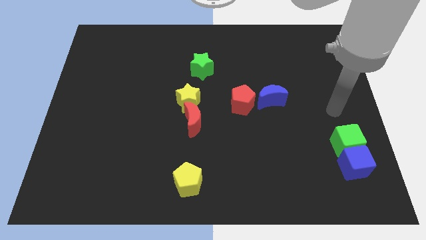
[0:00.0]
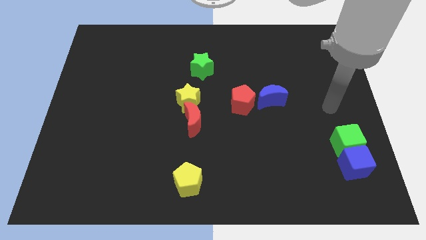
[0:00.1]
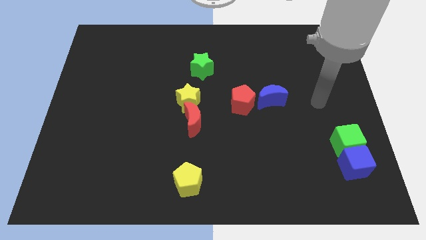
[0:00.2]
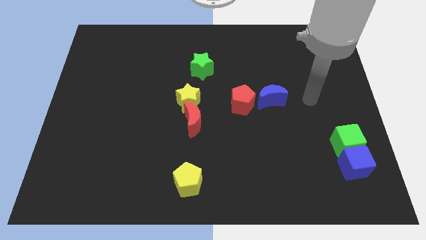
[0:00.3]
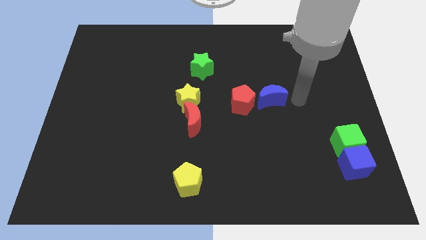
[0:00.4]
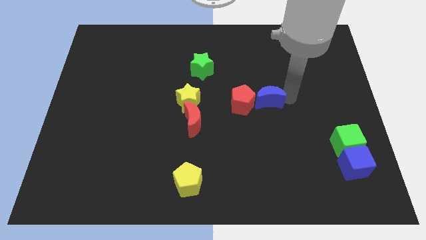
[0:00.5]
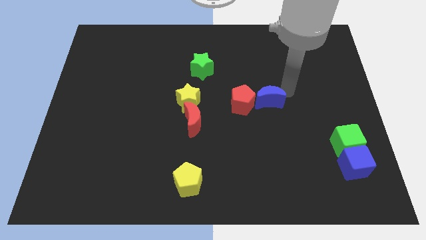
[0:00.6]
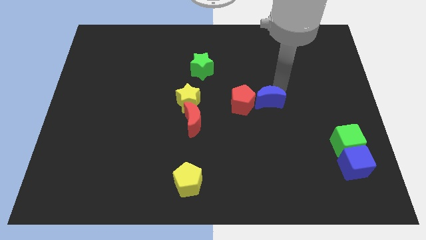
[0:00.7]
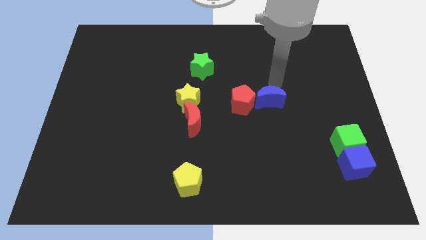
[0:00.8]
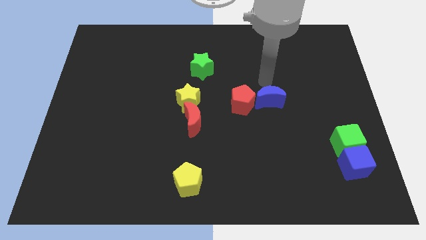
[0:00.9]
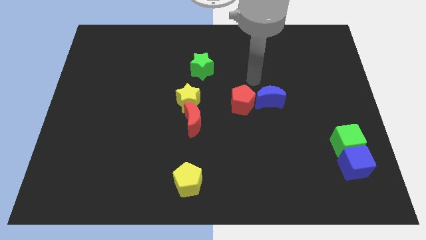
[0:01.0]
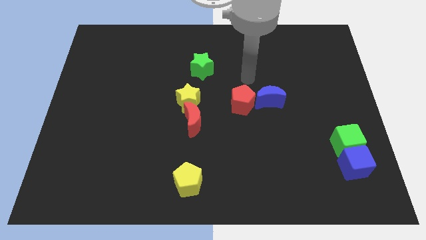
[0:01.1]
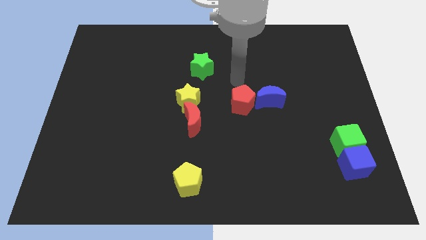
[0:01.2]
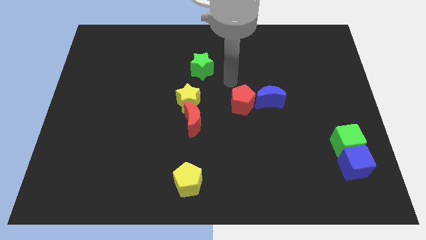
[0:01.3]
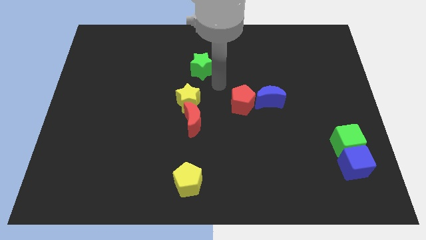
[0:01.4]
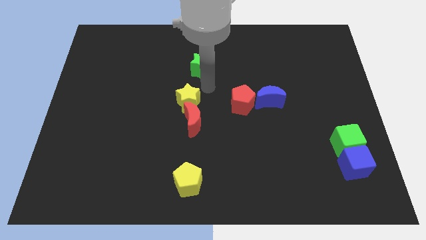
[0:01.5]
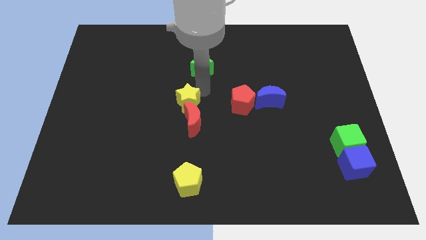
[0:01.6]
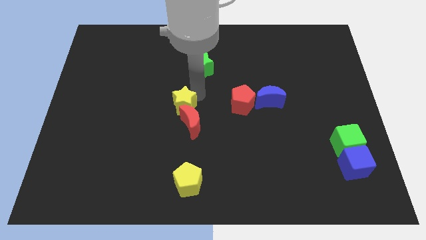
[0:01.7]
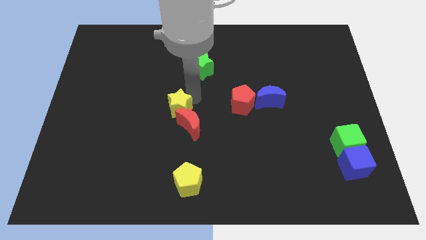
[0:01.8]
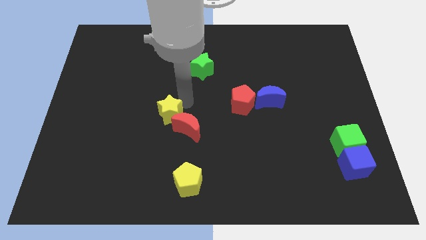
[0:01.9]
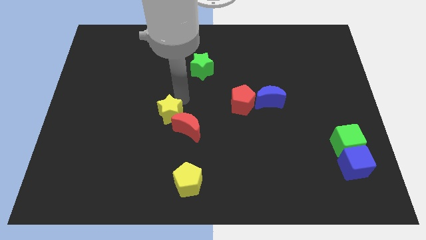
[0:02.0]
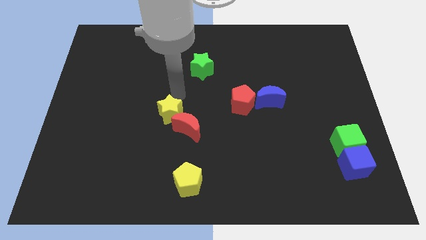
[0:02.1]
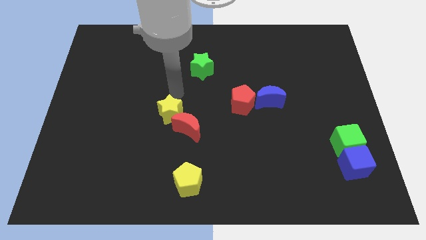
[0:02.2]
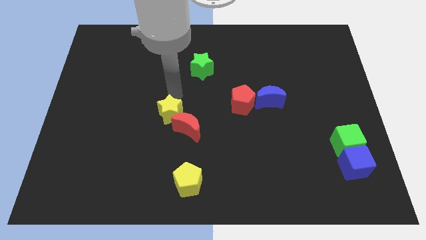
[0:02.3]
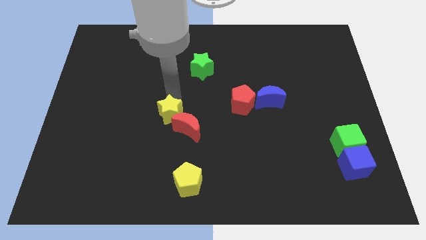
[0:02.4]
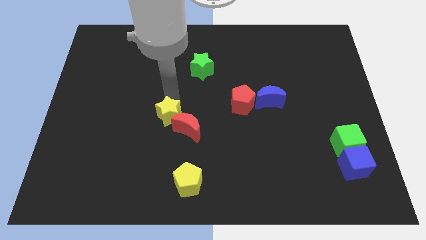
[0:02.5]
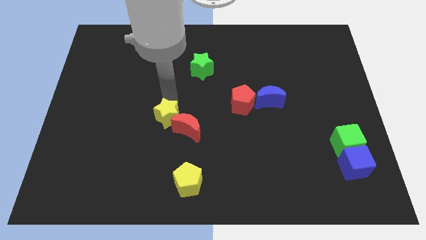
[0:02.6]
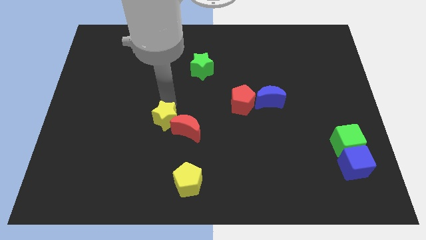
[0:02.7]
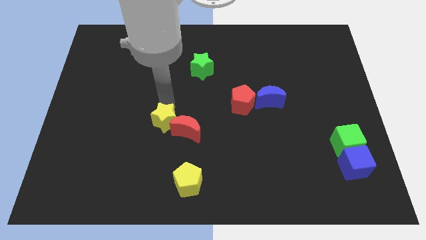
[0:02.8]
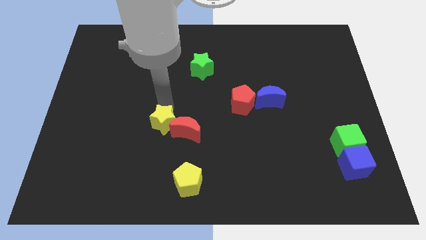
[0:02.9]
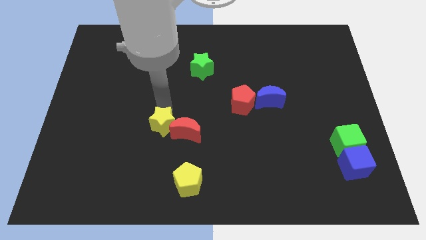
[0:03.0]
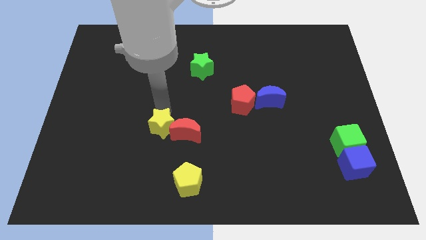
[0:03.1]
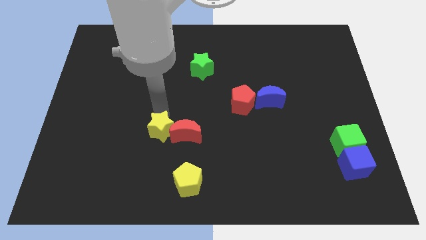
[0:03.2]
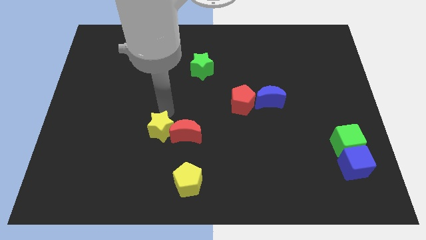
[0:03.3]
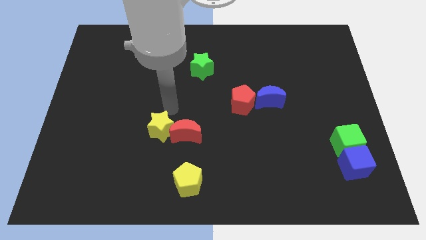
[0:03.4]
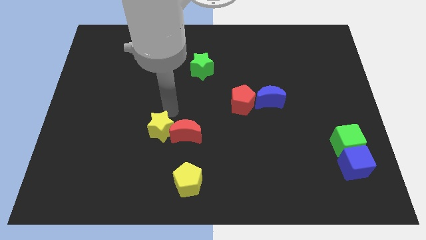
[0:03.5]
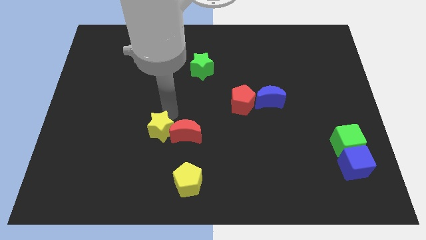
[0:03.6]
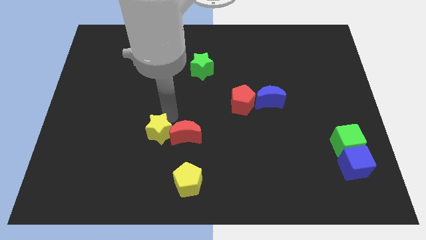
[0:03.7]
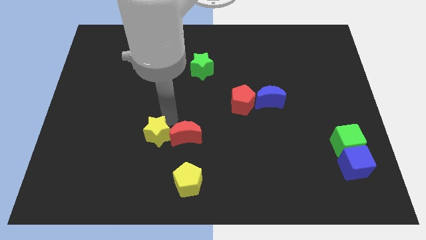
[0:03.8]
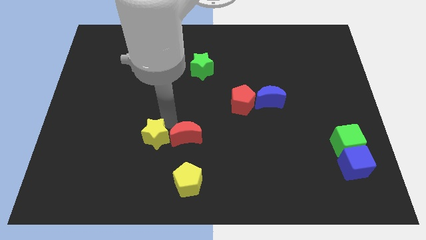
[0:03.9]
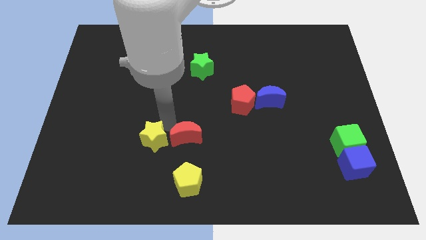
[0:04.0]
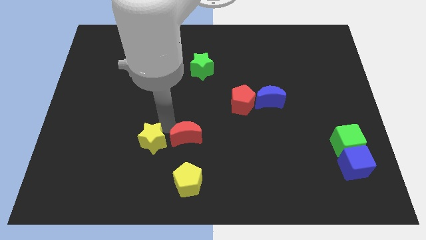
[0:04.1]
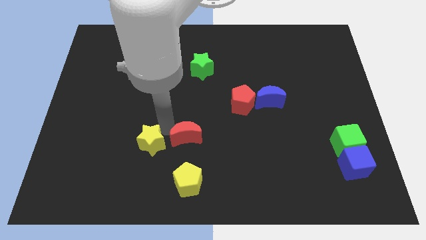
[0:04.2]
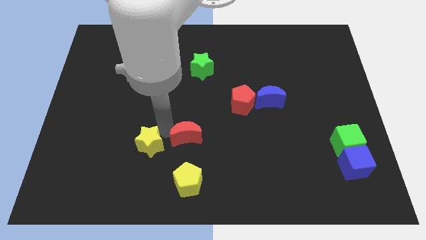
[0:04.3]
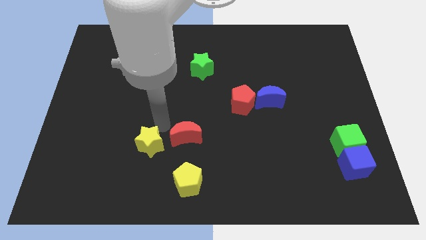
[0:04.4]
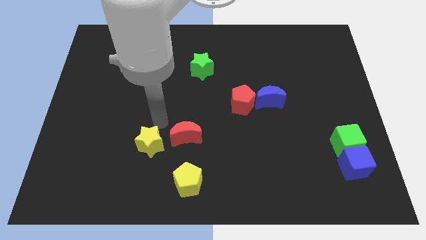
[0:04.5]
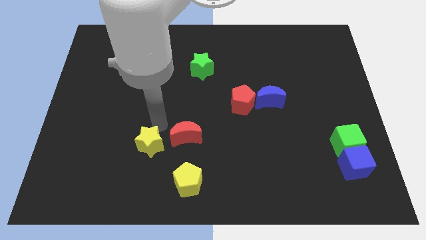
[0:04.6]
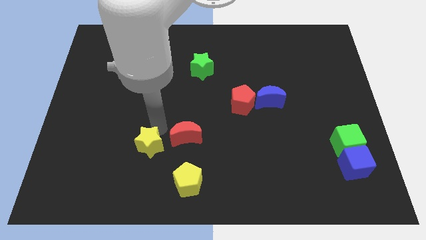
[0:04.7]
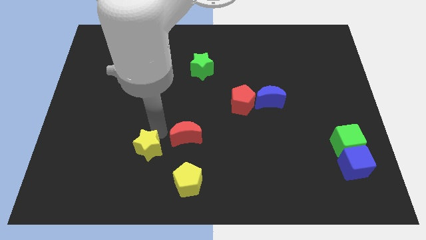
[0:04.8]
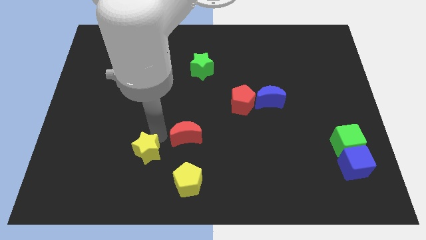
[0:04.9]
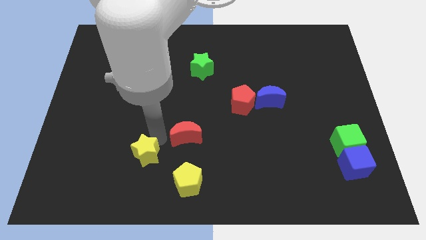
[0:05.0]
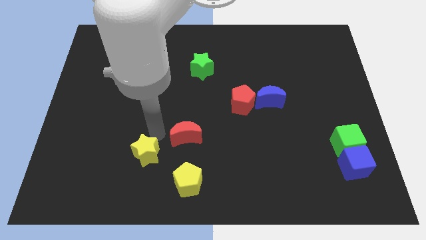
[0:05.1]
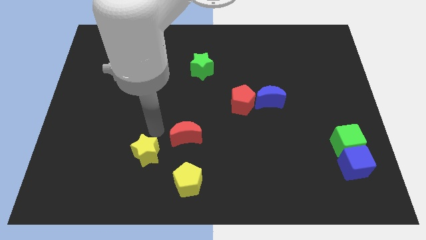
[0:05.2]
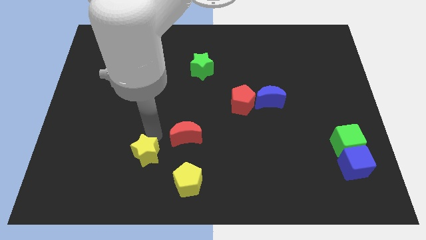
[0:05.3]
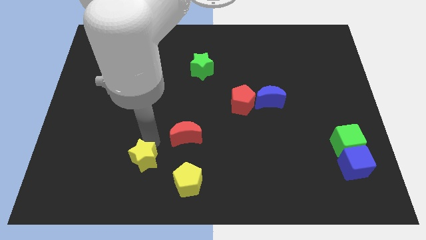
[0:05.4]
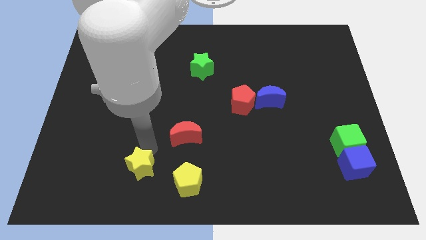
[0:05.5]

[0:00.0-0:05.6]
slide the yellow star just left of the yellow pentagon

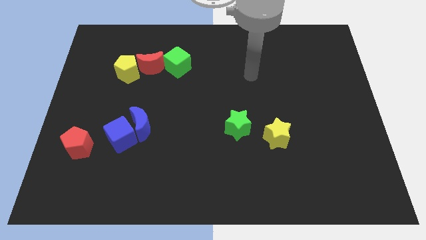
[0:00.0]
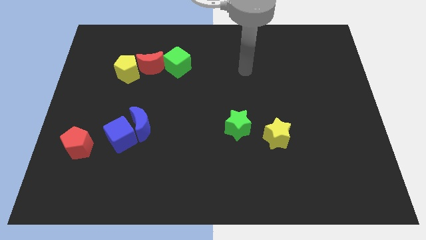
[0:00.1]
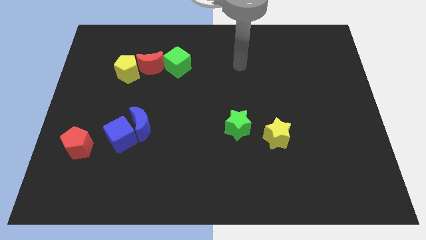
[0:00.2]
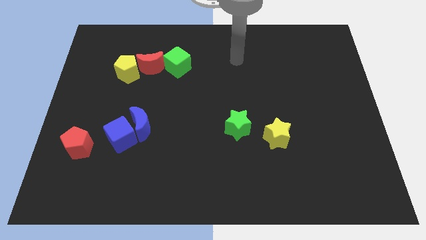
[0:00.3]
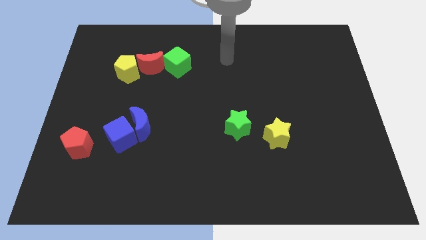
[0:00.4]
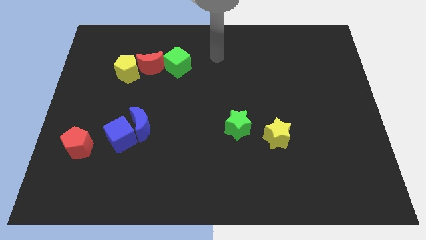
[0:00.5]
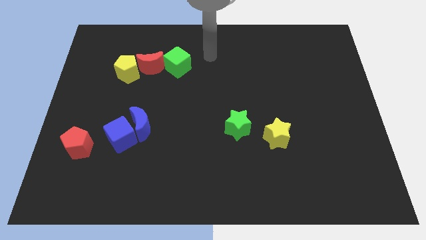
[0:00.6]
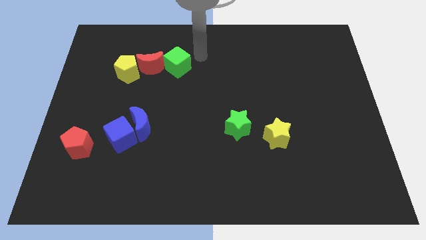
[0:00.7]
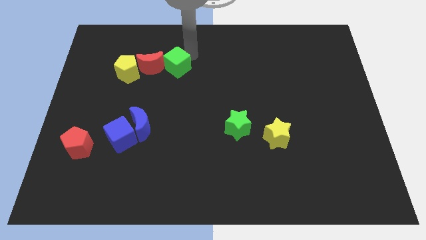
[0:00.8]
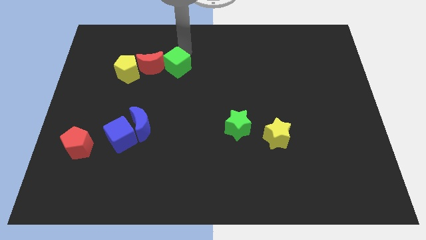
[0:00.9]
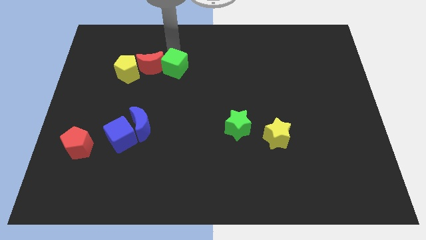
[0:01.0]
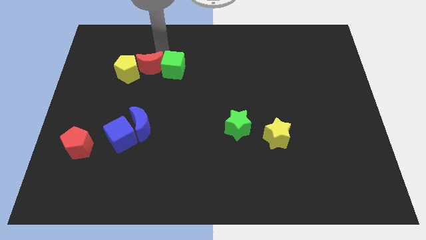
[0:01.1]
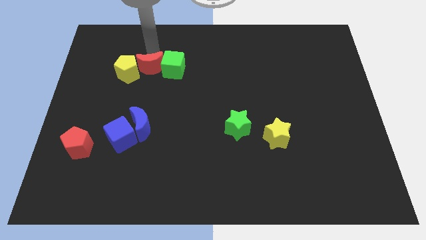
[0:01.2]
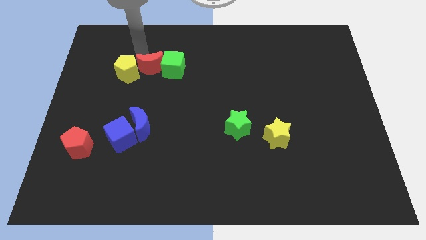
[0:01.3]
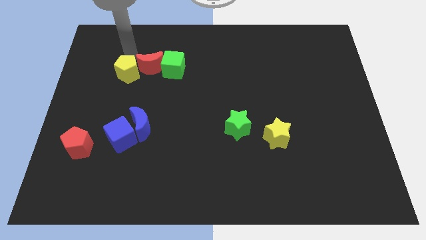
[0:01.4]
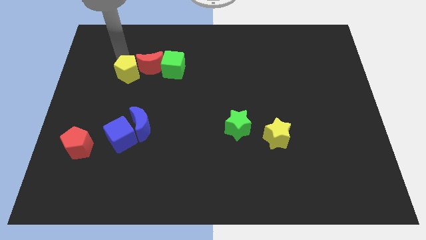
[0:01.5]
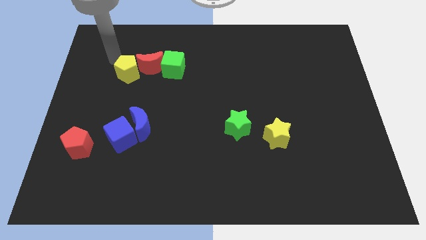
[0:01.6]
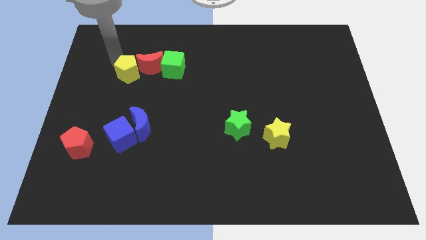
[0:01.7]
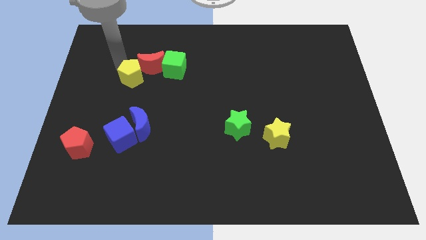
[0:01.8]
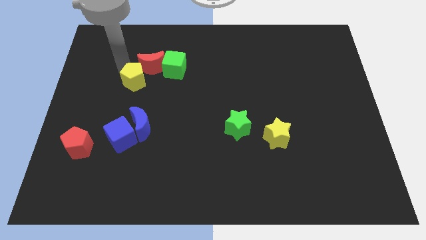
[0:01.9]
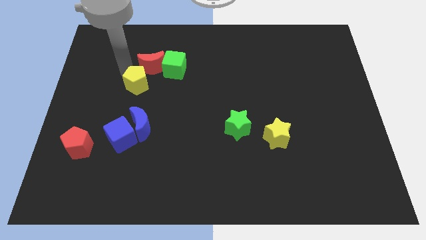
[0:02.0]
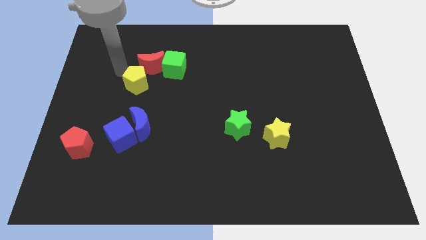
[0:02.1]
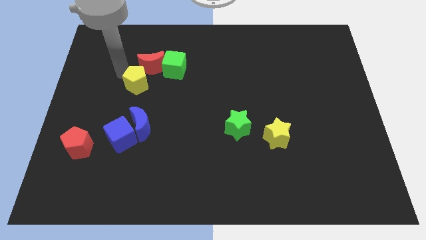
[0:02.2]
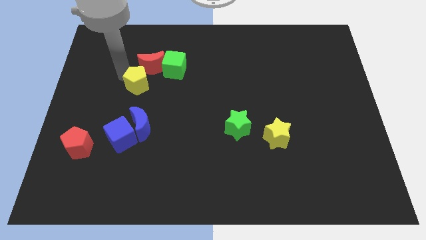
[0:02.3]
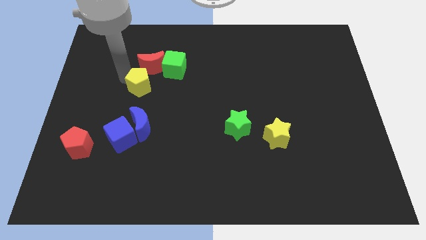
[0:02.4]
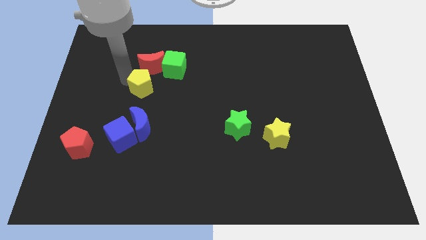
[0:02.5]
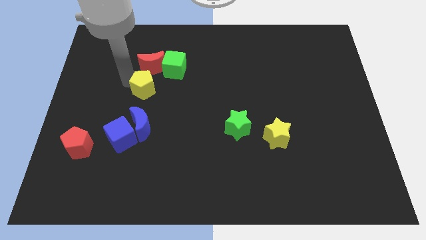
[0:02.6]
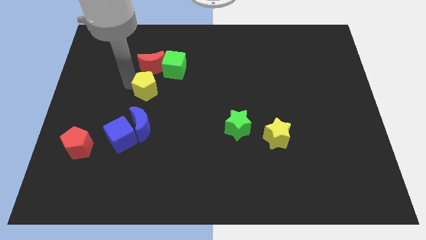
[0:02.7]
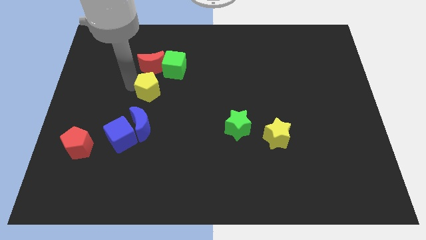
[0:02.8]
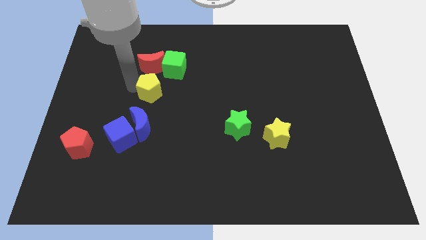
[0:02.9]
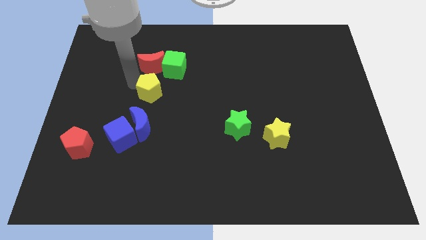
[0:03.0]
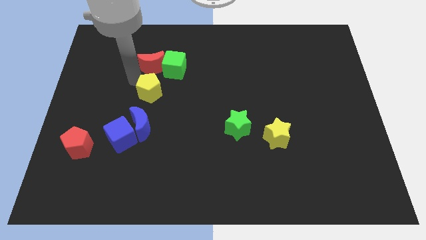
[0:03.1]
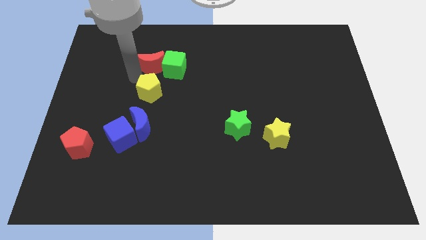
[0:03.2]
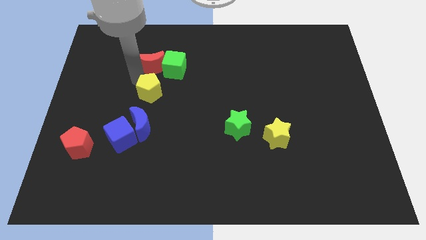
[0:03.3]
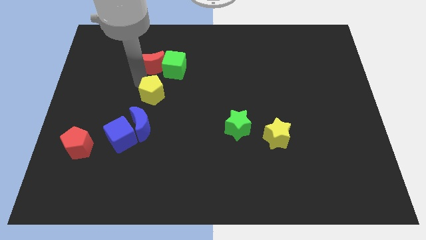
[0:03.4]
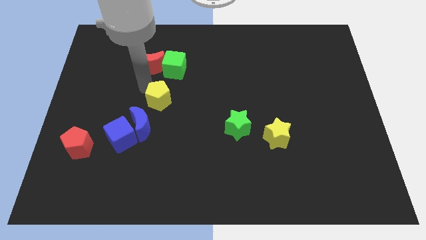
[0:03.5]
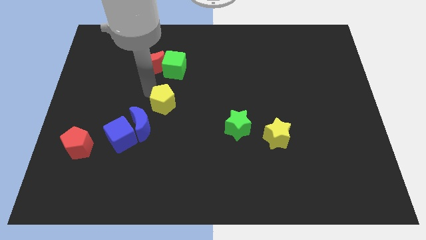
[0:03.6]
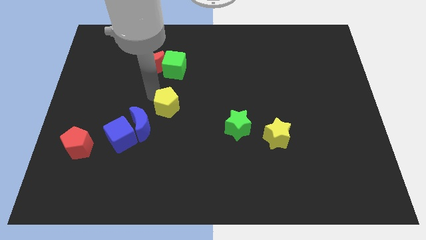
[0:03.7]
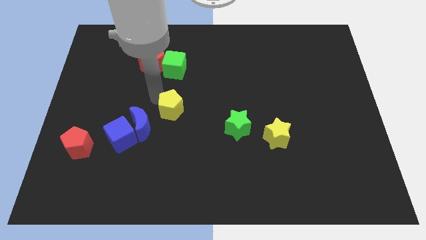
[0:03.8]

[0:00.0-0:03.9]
put the yellow pentagon just right of the blue moon
